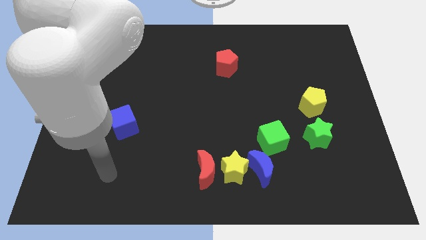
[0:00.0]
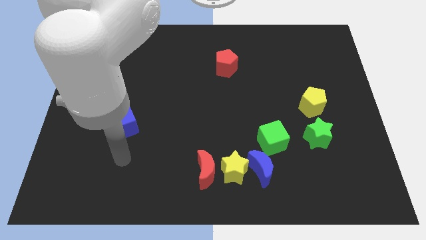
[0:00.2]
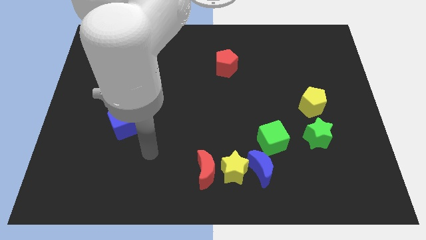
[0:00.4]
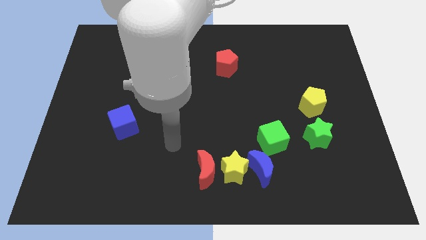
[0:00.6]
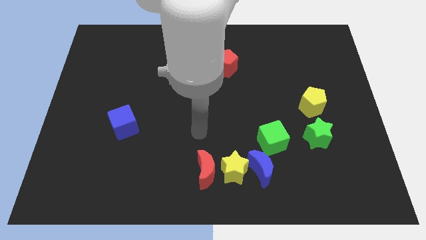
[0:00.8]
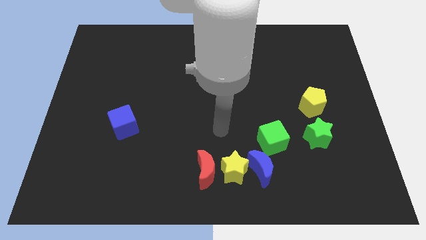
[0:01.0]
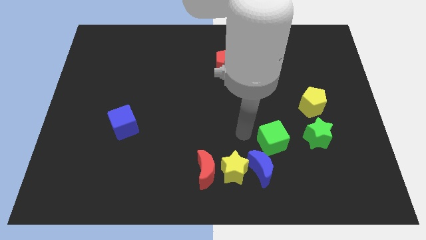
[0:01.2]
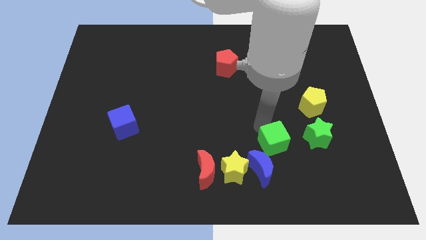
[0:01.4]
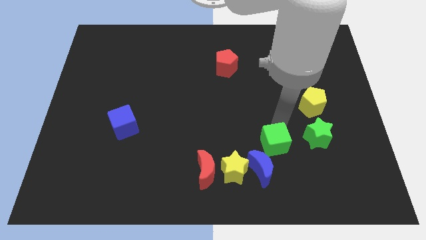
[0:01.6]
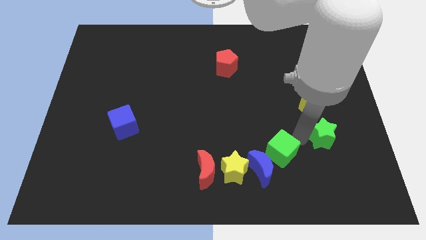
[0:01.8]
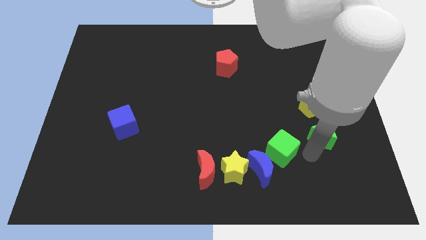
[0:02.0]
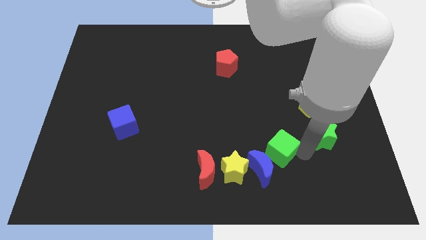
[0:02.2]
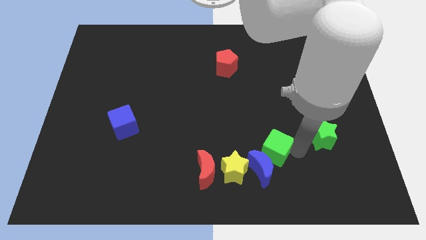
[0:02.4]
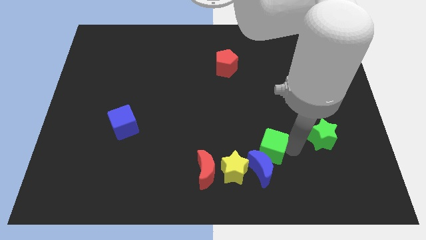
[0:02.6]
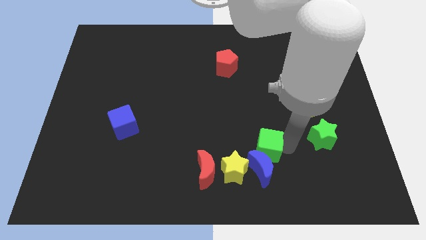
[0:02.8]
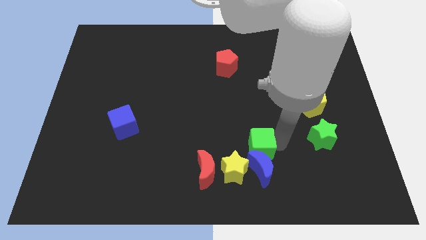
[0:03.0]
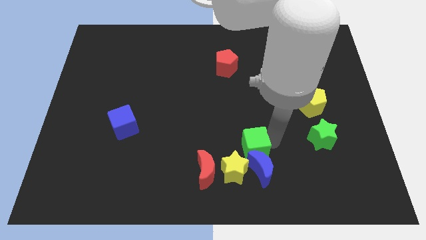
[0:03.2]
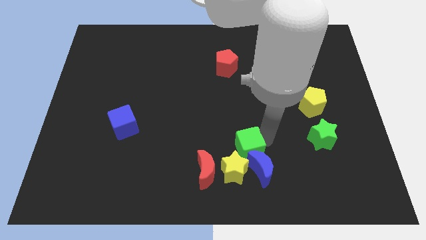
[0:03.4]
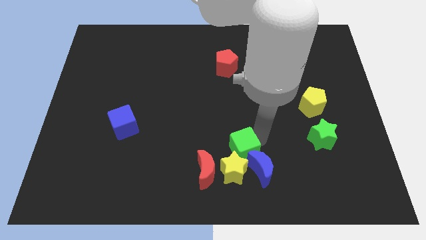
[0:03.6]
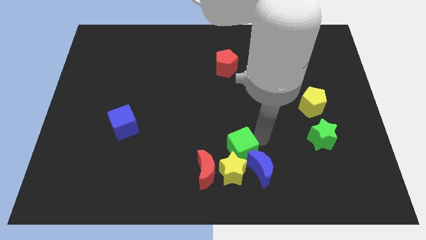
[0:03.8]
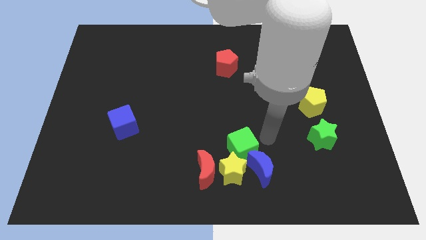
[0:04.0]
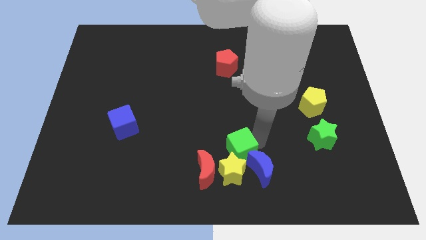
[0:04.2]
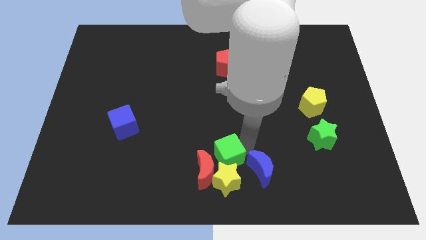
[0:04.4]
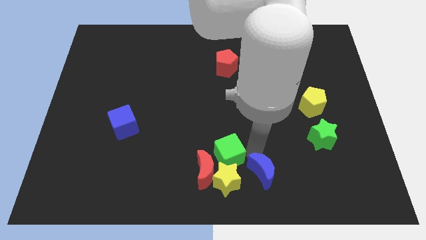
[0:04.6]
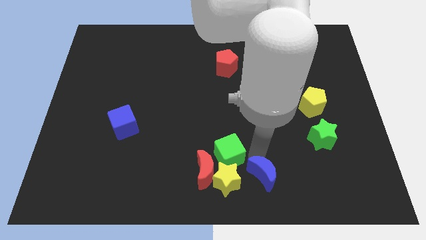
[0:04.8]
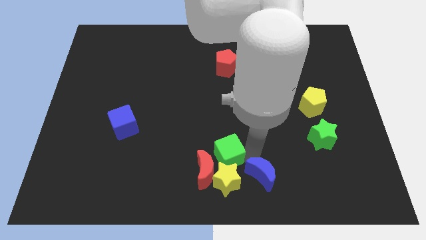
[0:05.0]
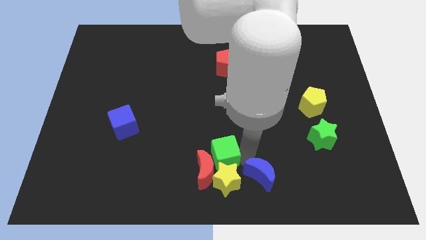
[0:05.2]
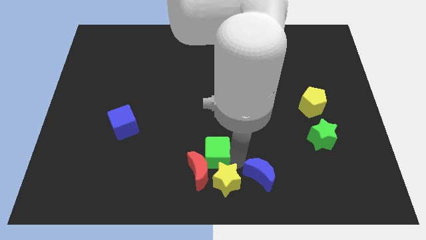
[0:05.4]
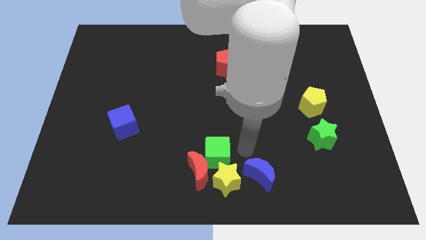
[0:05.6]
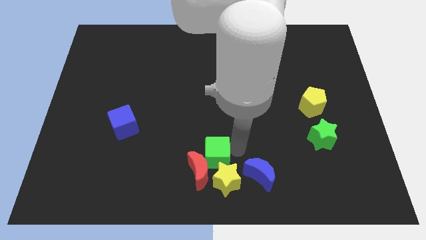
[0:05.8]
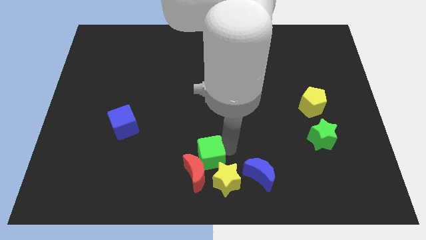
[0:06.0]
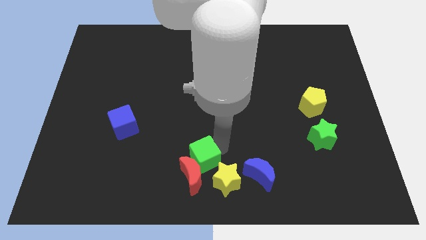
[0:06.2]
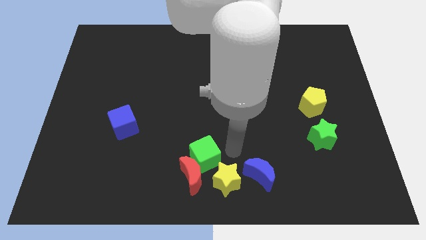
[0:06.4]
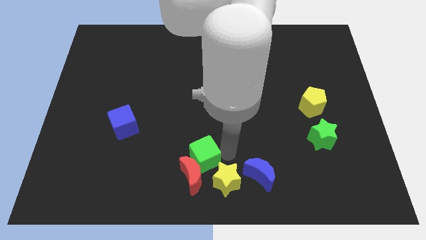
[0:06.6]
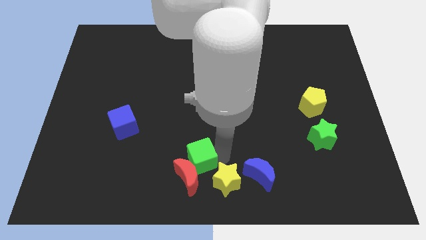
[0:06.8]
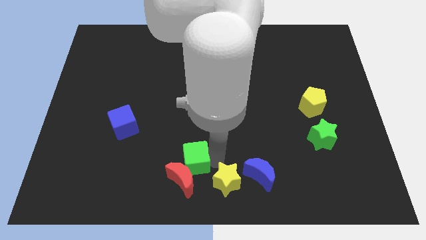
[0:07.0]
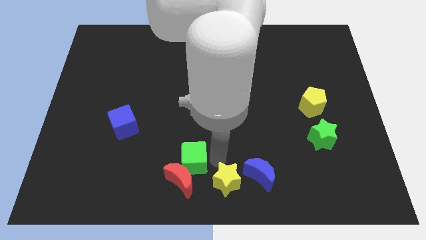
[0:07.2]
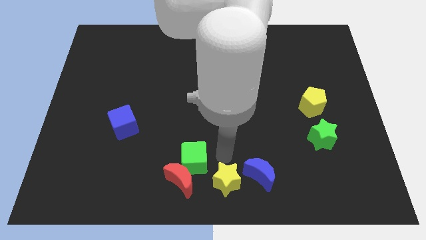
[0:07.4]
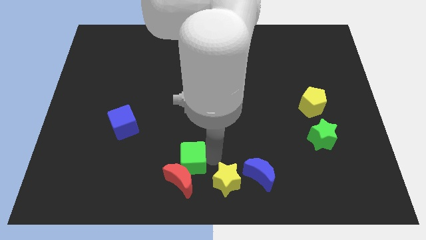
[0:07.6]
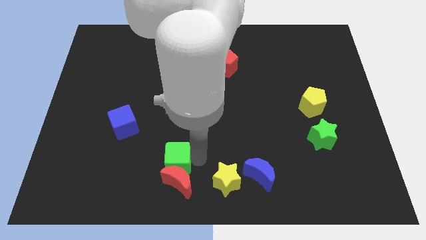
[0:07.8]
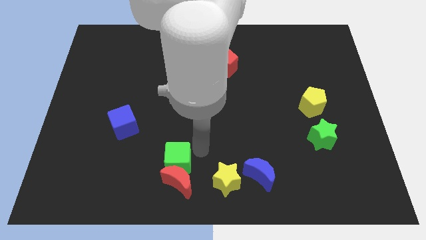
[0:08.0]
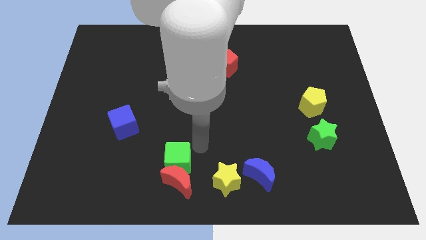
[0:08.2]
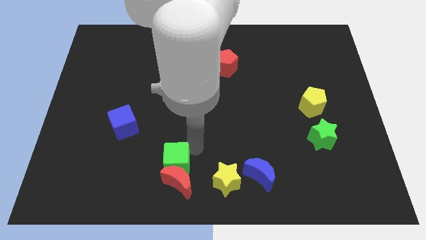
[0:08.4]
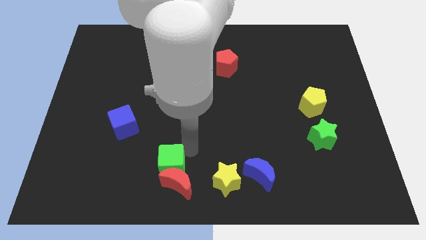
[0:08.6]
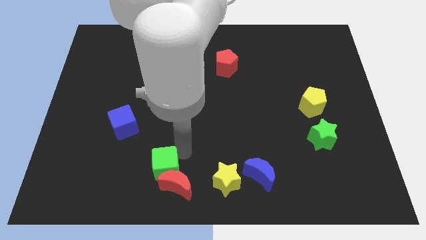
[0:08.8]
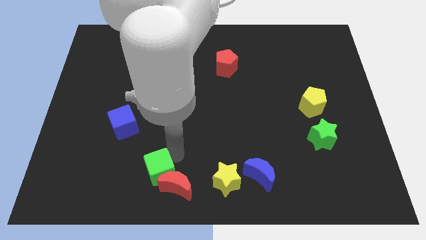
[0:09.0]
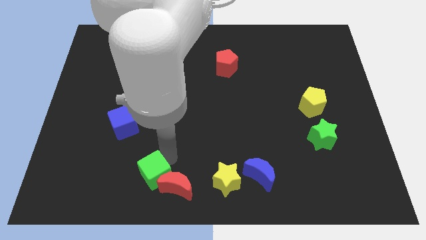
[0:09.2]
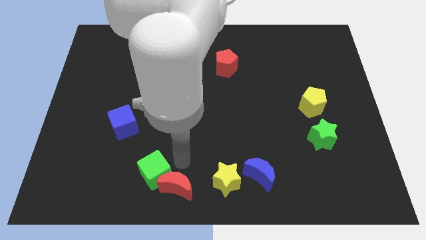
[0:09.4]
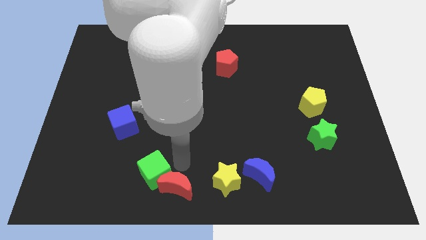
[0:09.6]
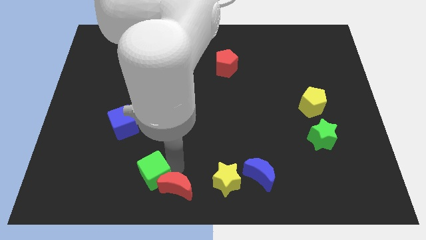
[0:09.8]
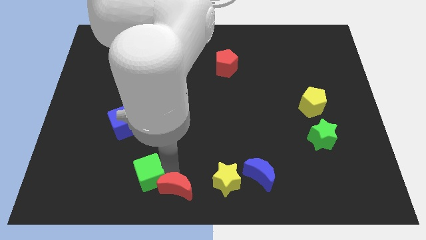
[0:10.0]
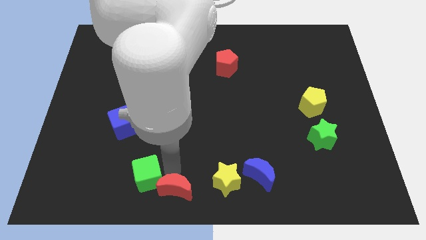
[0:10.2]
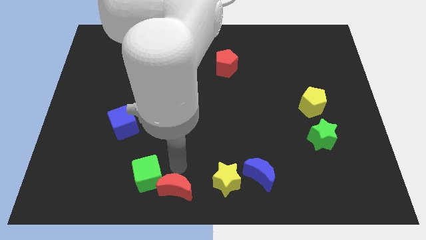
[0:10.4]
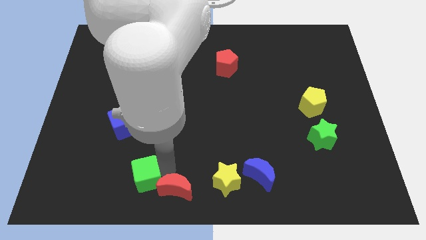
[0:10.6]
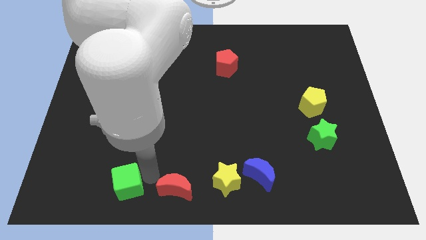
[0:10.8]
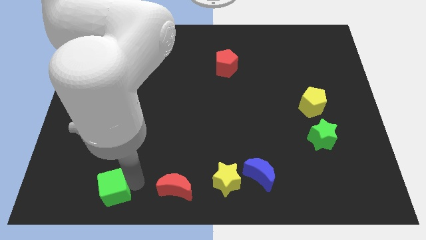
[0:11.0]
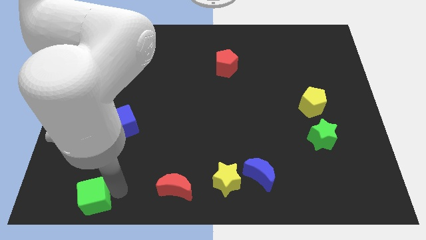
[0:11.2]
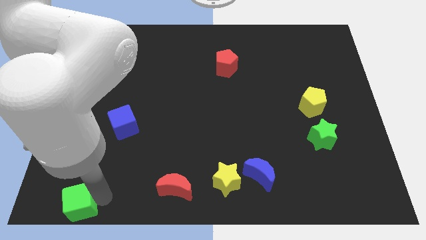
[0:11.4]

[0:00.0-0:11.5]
push the green cube to the lower left corner
